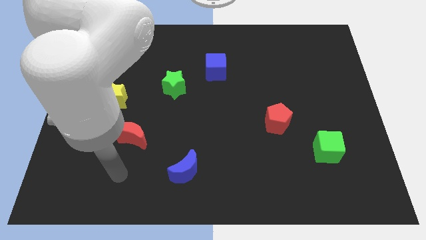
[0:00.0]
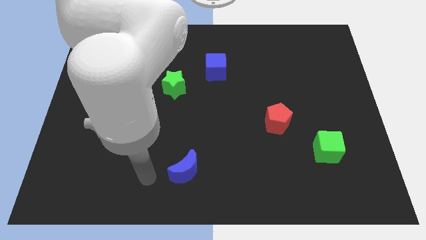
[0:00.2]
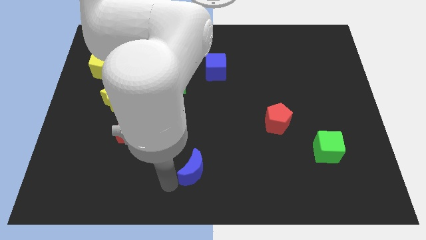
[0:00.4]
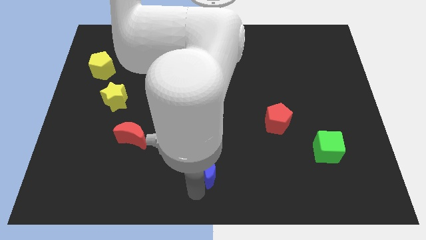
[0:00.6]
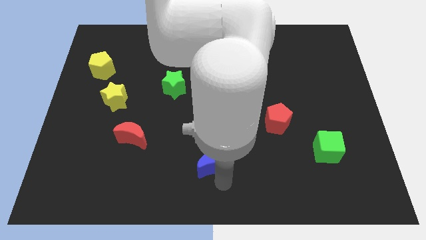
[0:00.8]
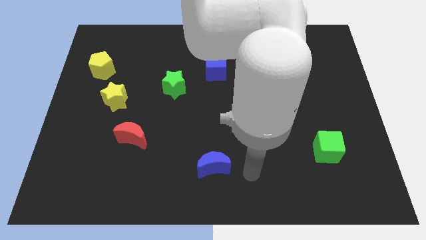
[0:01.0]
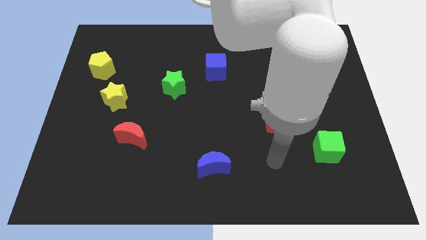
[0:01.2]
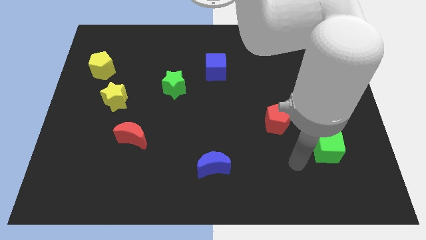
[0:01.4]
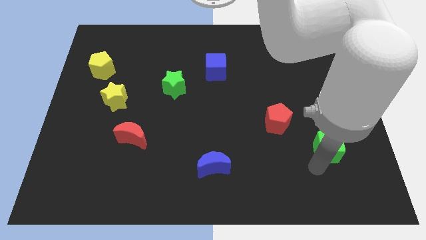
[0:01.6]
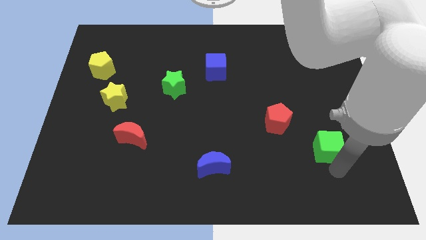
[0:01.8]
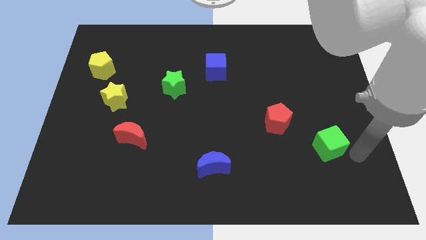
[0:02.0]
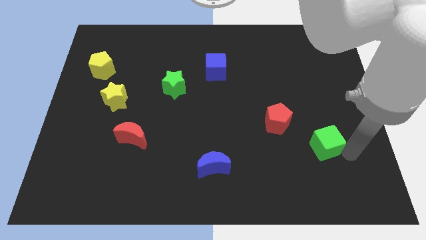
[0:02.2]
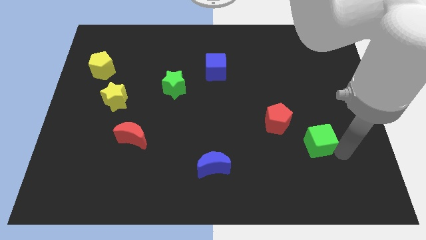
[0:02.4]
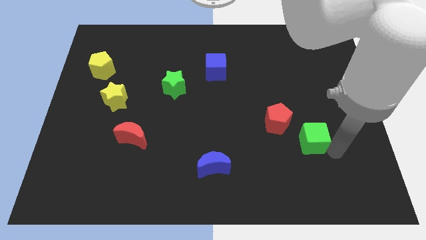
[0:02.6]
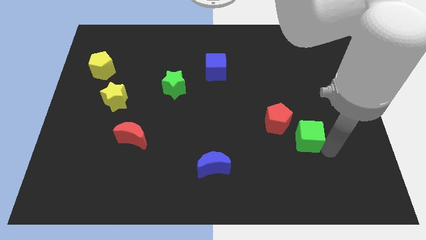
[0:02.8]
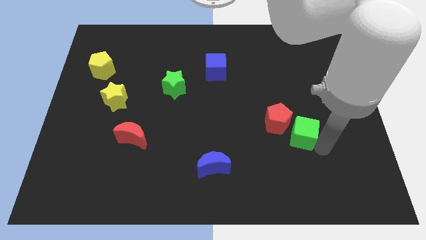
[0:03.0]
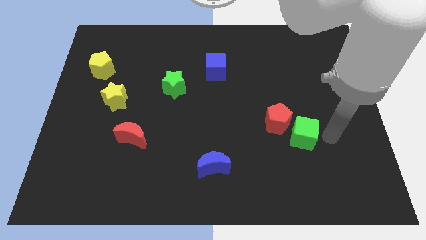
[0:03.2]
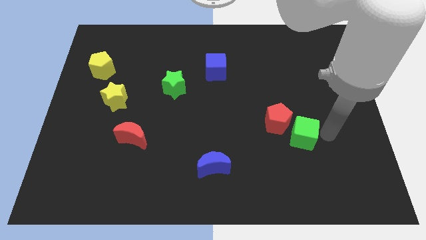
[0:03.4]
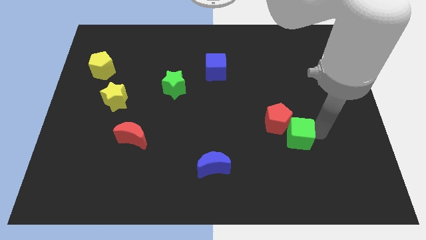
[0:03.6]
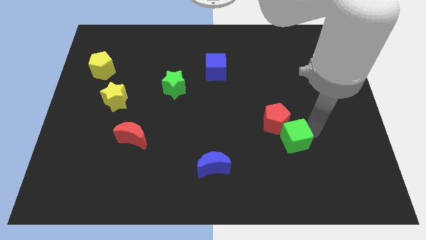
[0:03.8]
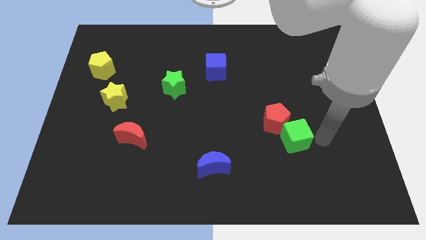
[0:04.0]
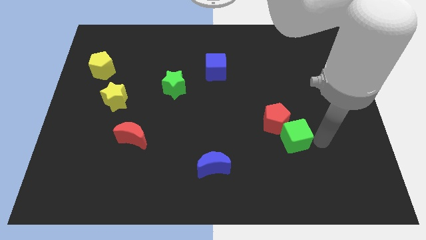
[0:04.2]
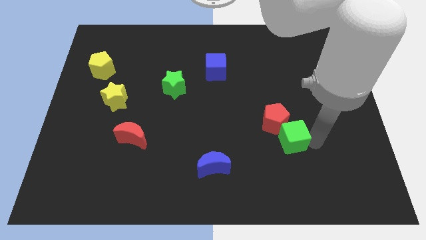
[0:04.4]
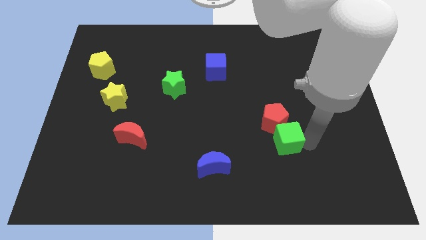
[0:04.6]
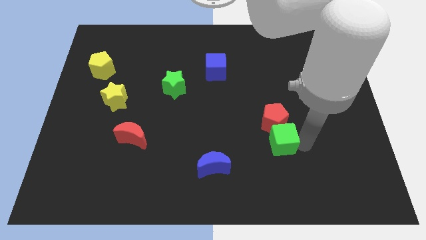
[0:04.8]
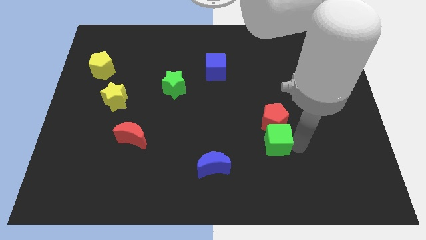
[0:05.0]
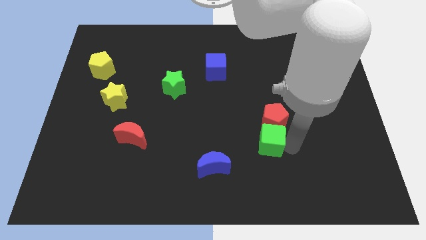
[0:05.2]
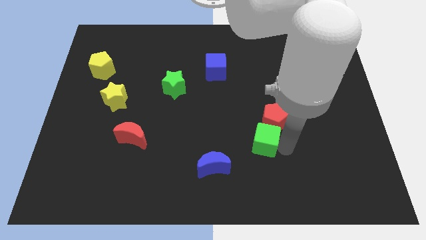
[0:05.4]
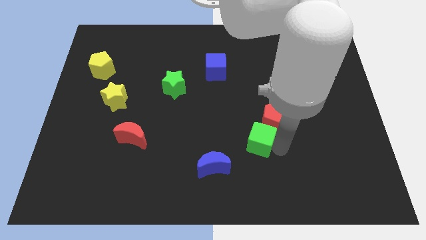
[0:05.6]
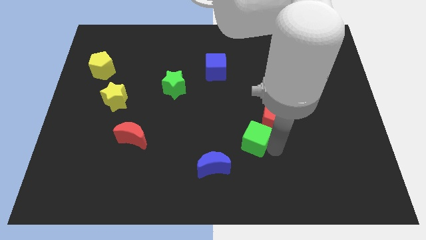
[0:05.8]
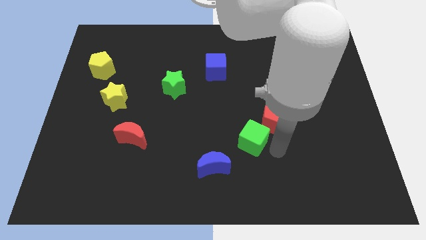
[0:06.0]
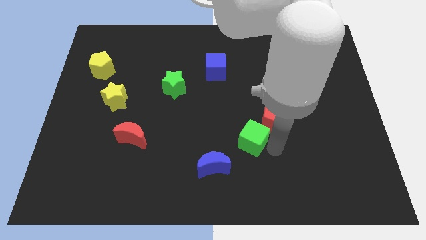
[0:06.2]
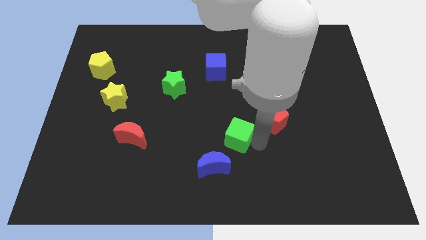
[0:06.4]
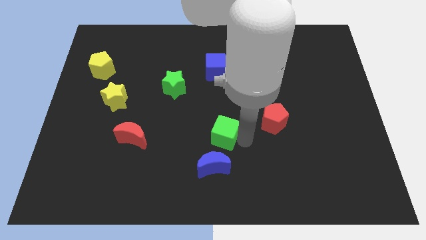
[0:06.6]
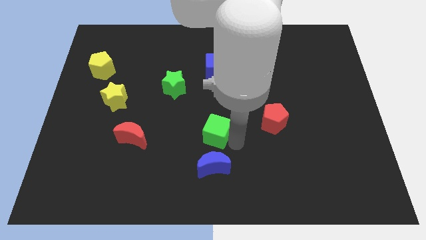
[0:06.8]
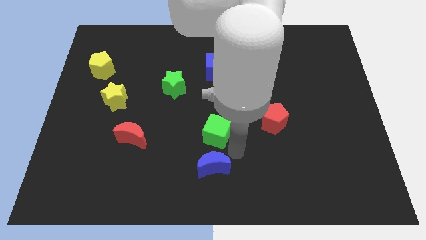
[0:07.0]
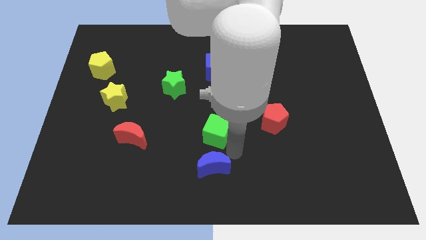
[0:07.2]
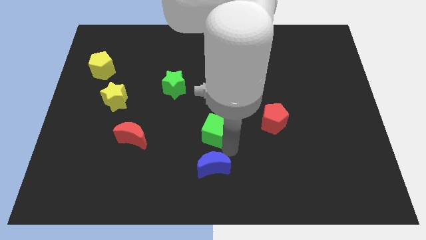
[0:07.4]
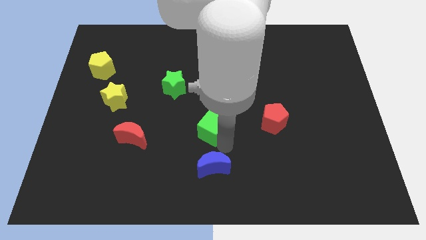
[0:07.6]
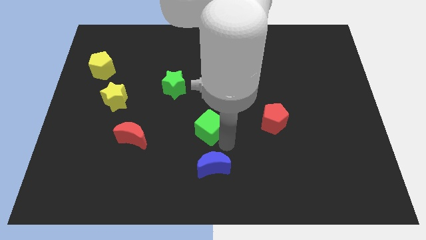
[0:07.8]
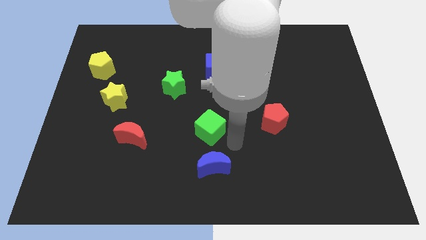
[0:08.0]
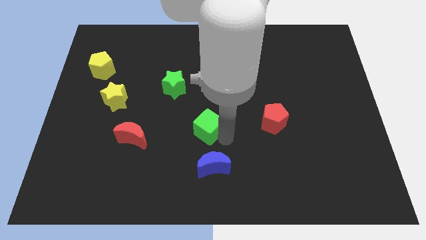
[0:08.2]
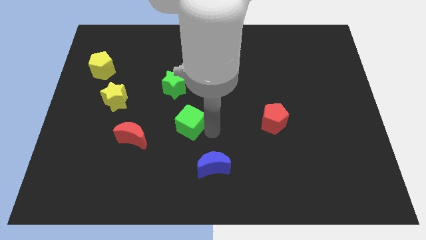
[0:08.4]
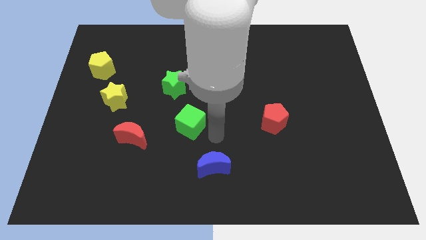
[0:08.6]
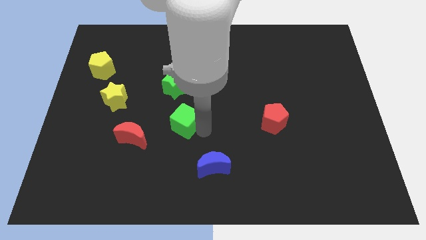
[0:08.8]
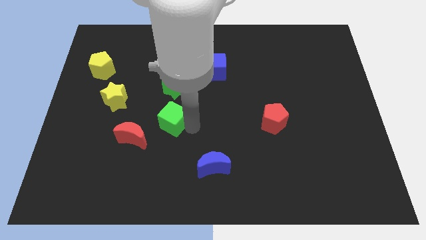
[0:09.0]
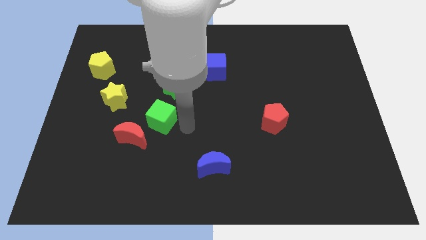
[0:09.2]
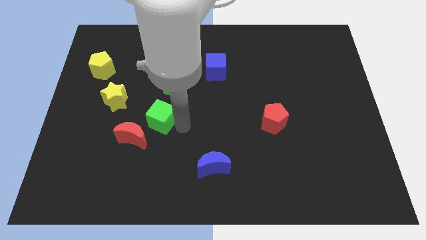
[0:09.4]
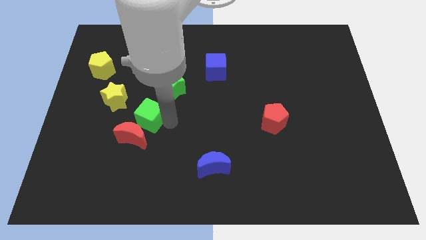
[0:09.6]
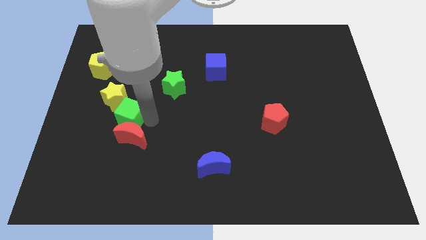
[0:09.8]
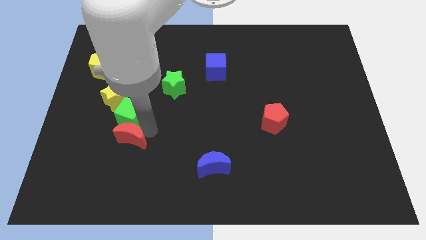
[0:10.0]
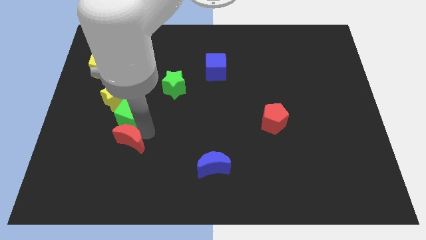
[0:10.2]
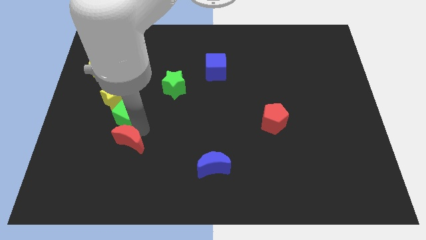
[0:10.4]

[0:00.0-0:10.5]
slide the green cube close to the yellow star

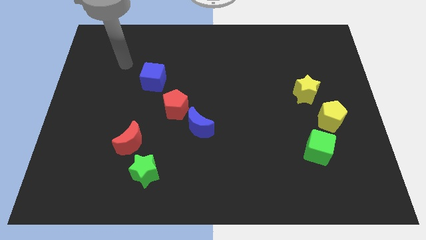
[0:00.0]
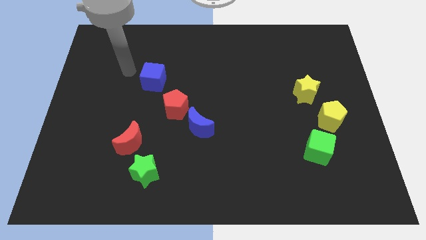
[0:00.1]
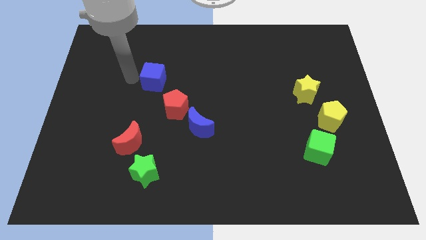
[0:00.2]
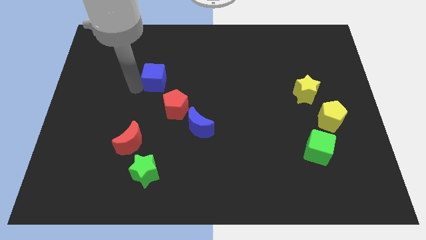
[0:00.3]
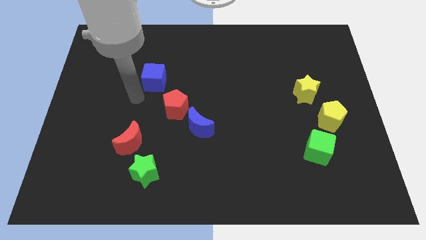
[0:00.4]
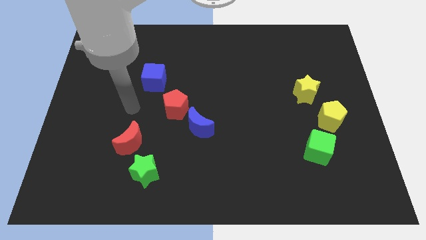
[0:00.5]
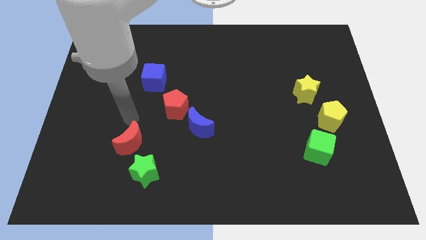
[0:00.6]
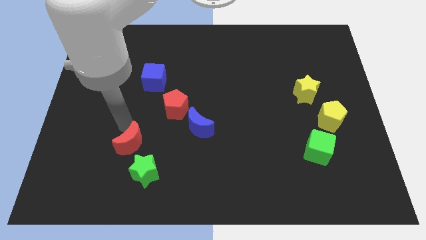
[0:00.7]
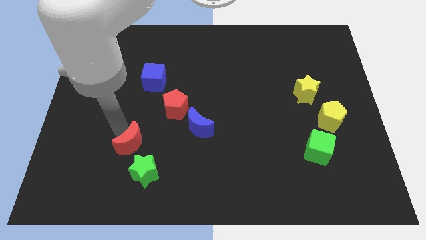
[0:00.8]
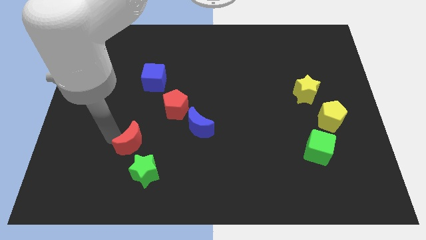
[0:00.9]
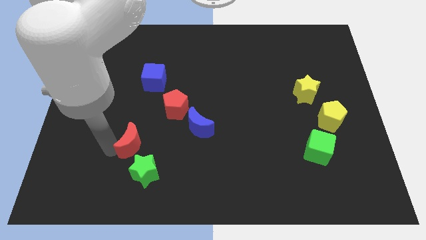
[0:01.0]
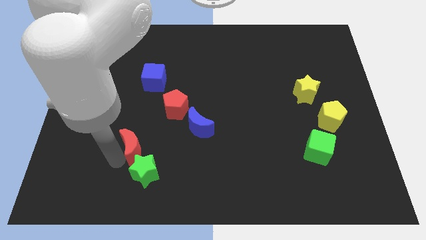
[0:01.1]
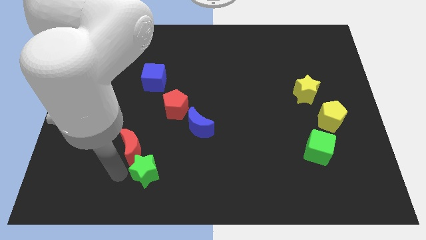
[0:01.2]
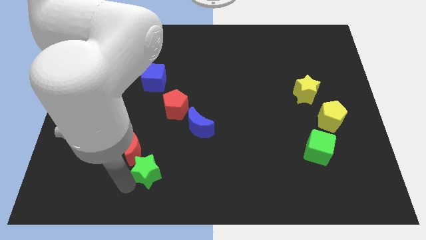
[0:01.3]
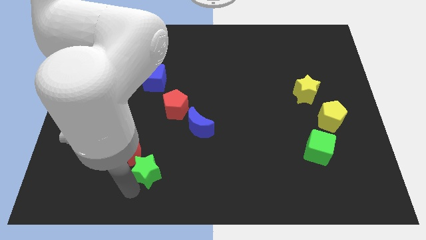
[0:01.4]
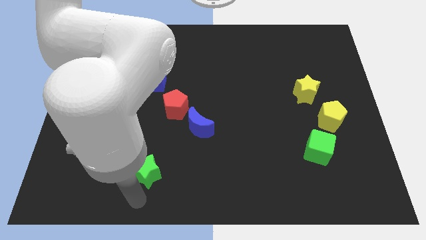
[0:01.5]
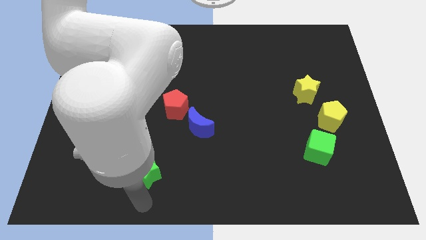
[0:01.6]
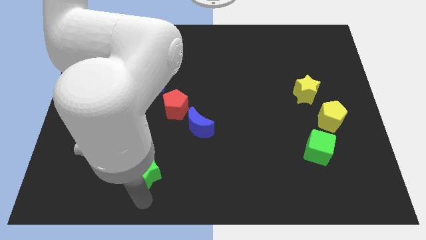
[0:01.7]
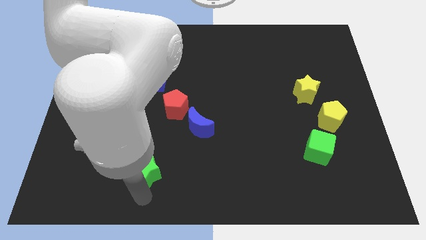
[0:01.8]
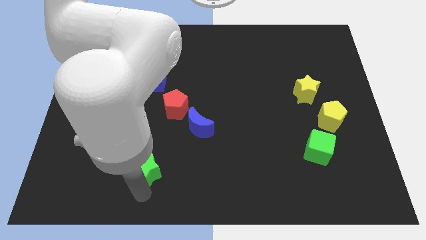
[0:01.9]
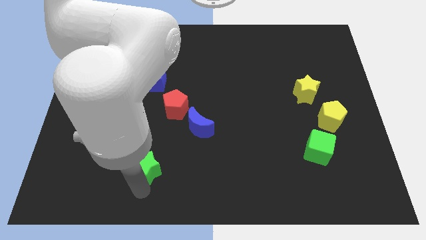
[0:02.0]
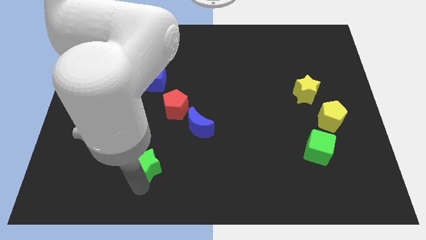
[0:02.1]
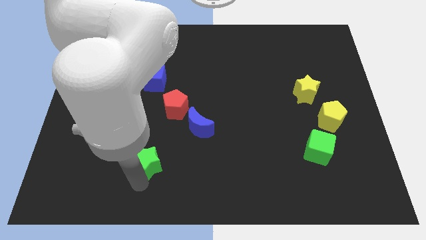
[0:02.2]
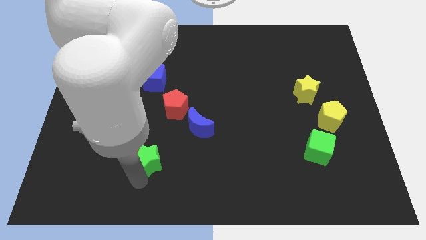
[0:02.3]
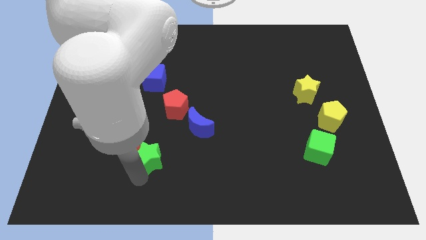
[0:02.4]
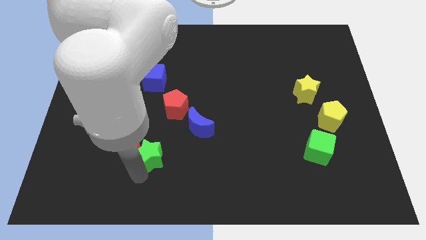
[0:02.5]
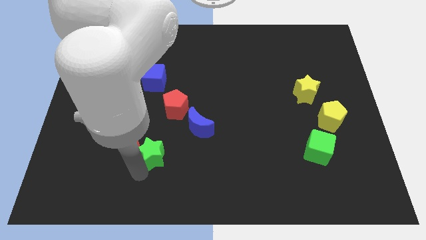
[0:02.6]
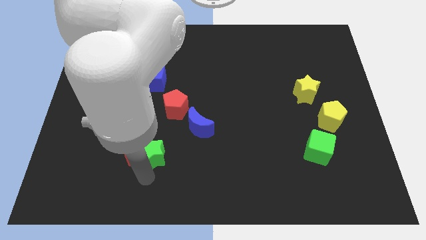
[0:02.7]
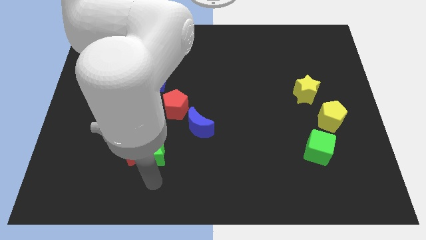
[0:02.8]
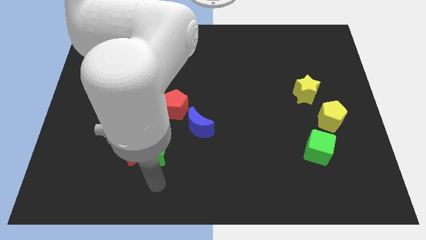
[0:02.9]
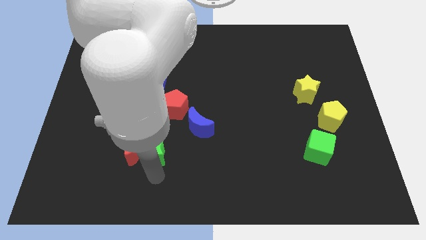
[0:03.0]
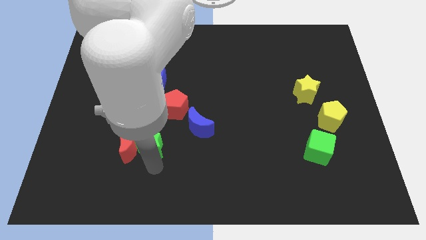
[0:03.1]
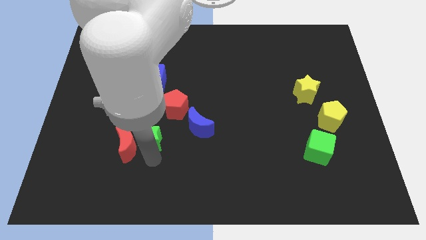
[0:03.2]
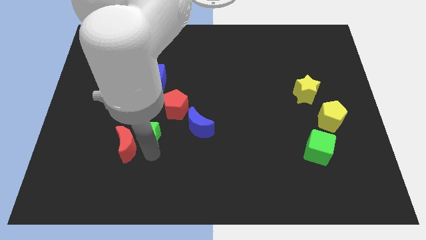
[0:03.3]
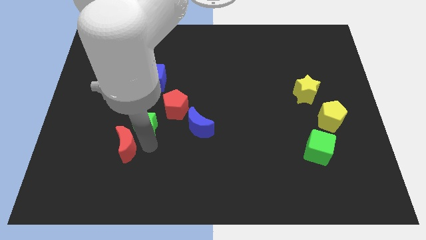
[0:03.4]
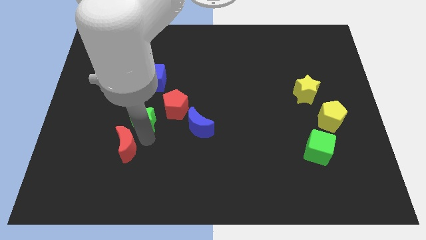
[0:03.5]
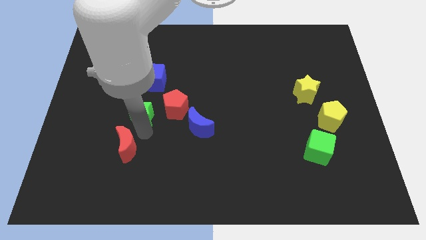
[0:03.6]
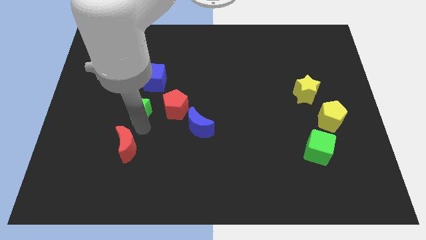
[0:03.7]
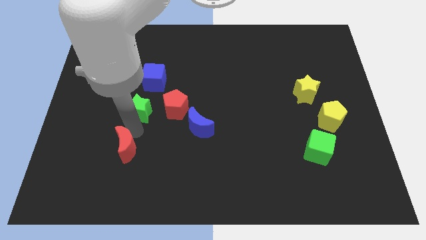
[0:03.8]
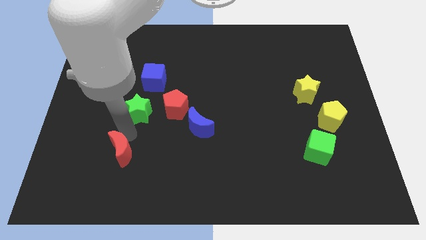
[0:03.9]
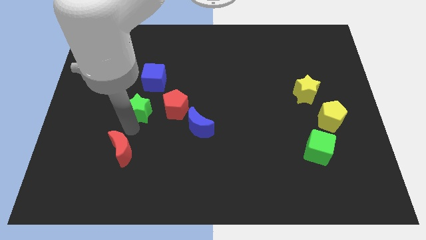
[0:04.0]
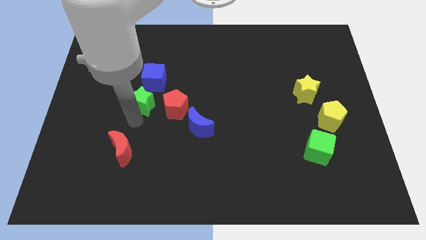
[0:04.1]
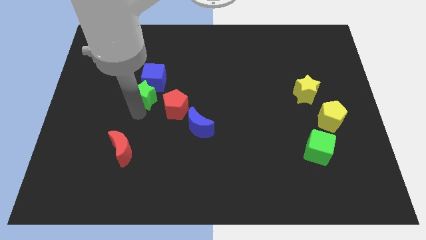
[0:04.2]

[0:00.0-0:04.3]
put the green star close to the blue cube
